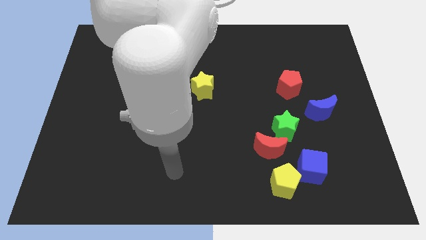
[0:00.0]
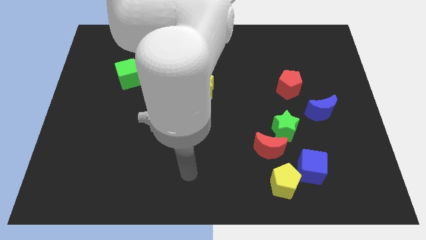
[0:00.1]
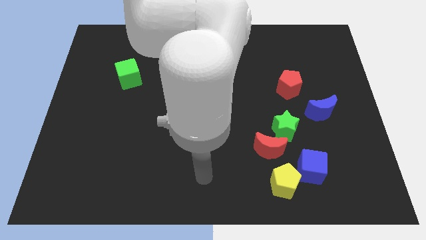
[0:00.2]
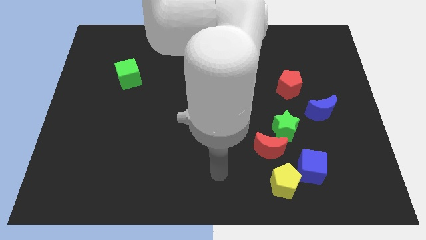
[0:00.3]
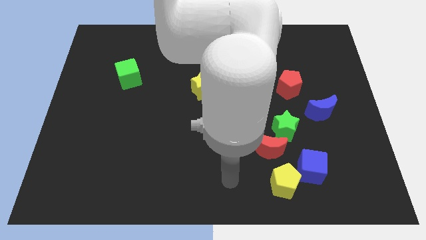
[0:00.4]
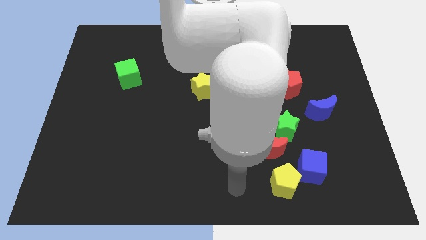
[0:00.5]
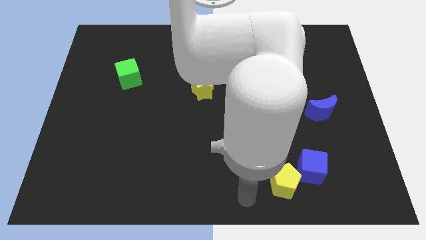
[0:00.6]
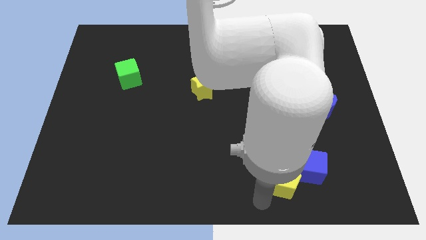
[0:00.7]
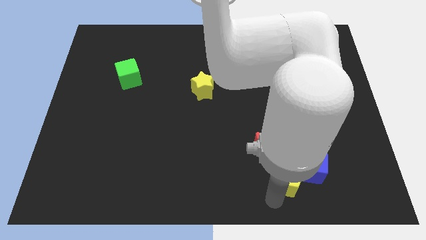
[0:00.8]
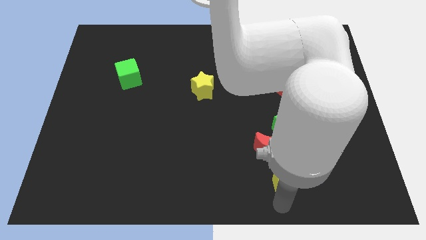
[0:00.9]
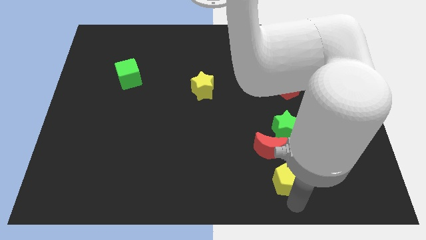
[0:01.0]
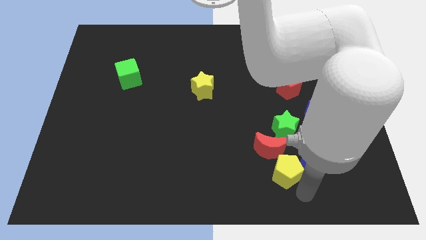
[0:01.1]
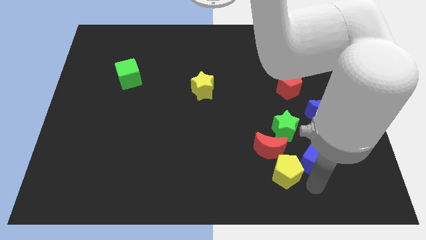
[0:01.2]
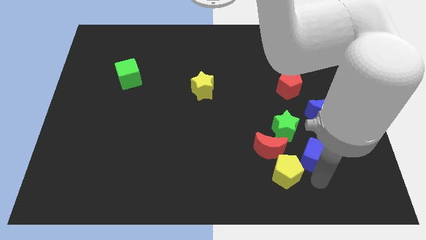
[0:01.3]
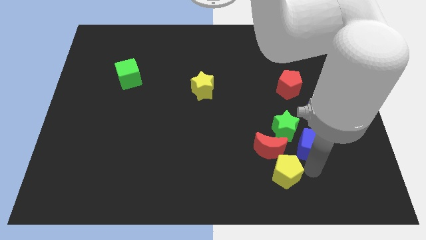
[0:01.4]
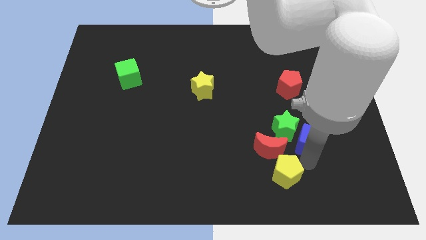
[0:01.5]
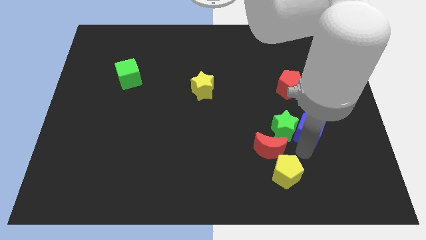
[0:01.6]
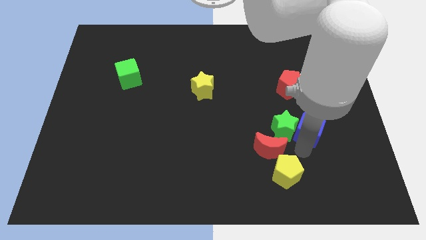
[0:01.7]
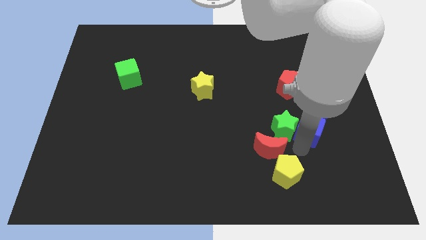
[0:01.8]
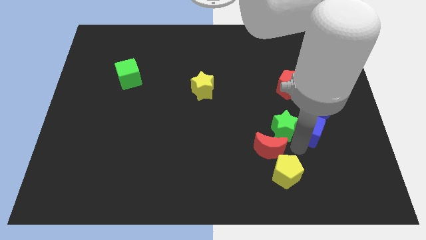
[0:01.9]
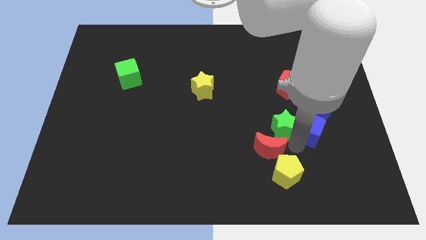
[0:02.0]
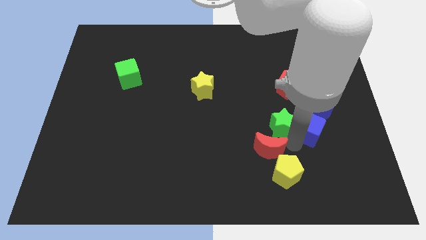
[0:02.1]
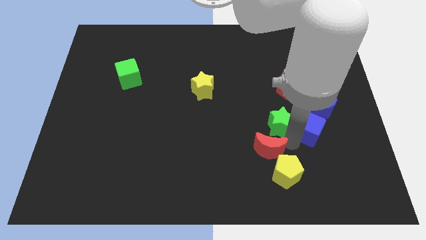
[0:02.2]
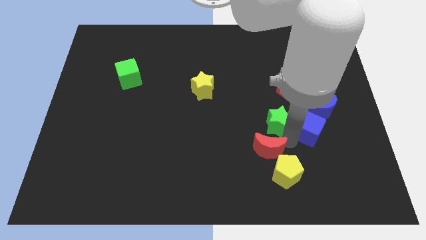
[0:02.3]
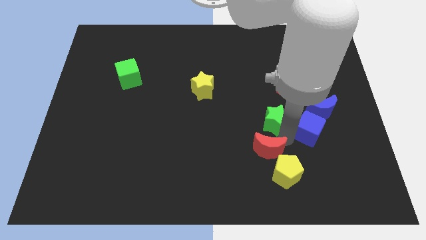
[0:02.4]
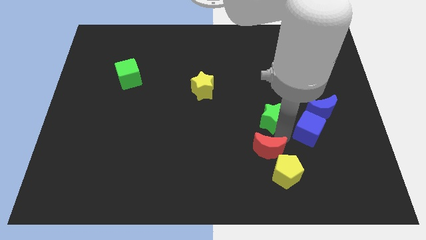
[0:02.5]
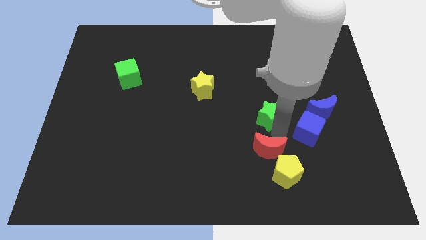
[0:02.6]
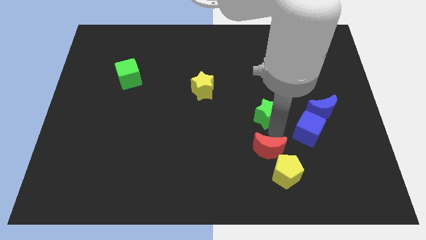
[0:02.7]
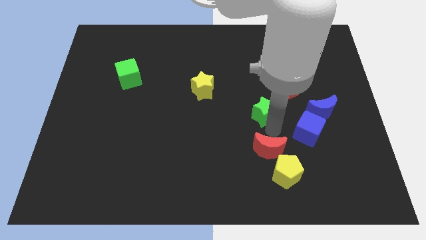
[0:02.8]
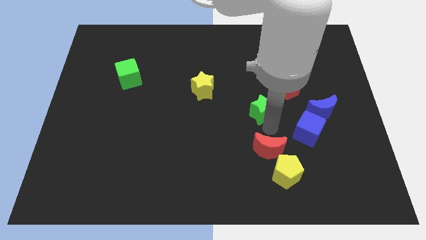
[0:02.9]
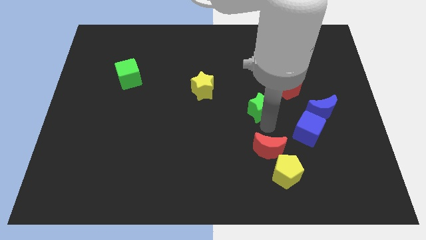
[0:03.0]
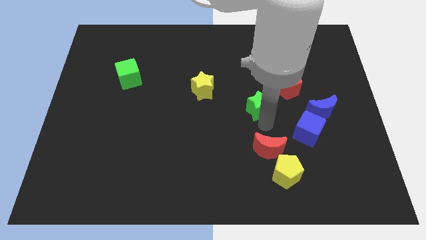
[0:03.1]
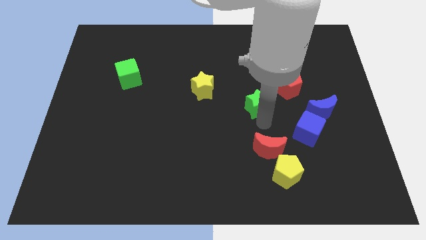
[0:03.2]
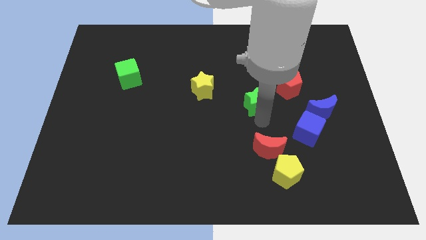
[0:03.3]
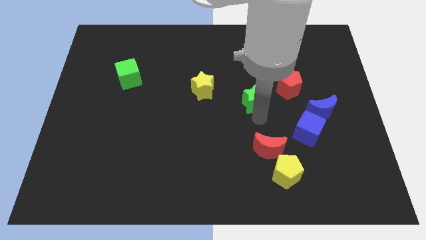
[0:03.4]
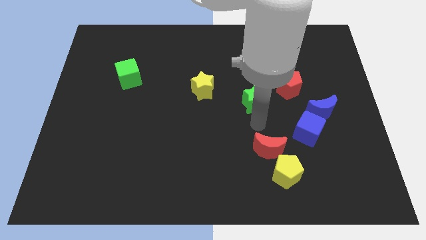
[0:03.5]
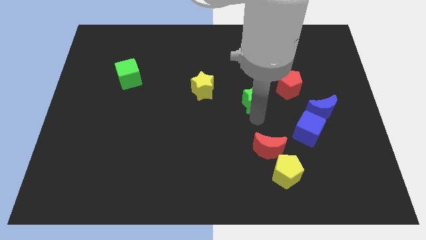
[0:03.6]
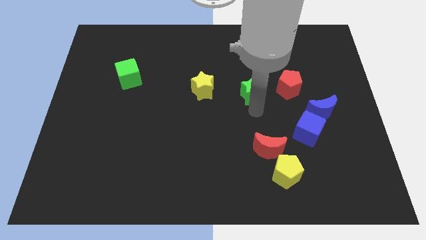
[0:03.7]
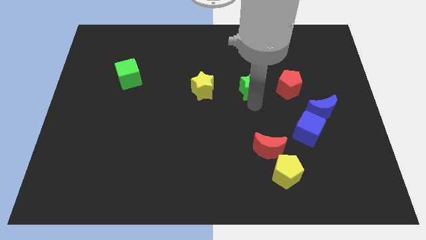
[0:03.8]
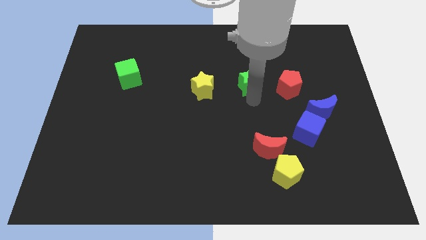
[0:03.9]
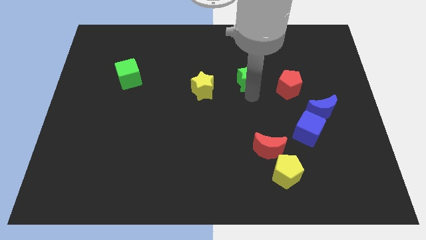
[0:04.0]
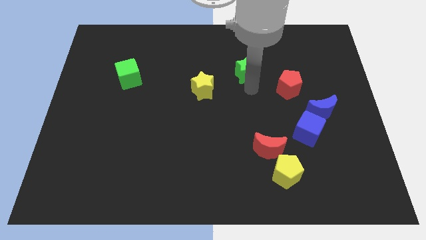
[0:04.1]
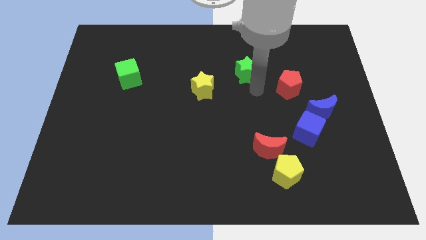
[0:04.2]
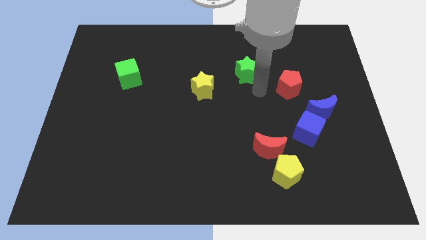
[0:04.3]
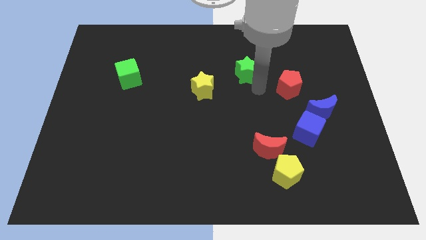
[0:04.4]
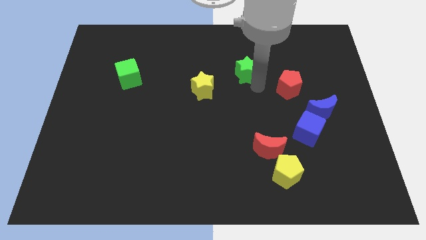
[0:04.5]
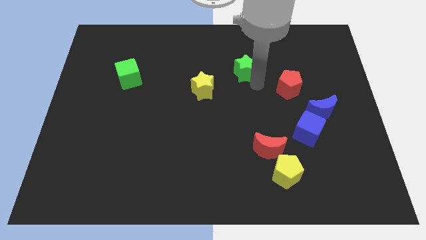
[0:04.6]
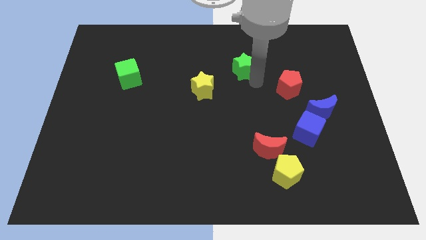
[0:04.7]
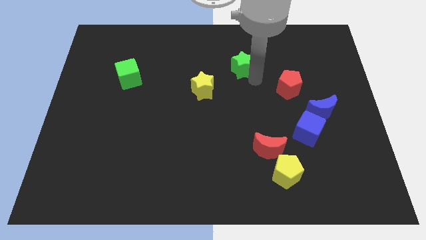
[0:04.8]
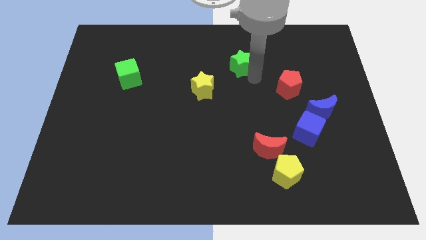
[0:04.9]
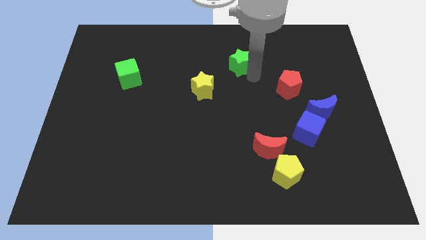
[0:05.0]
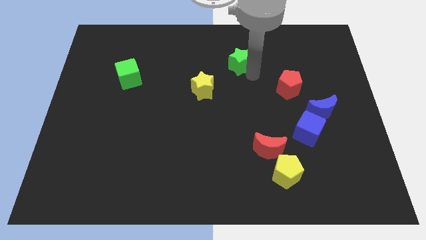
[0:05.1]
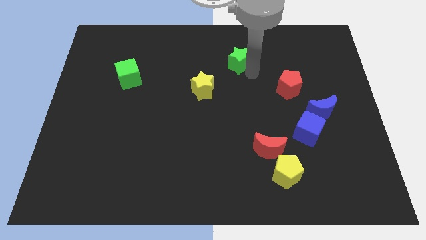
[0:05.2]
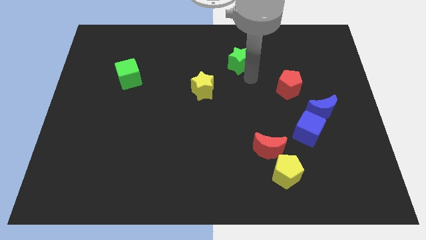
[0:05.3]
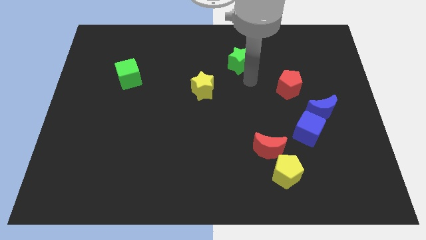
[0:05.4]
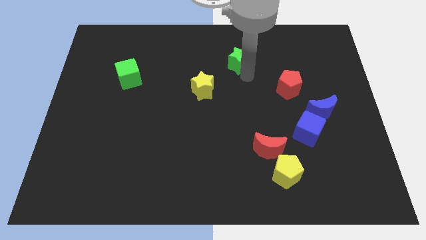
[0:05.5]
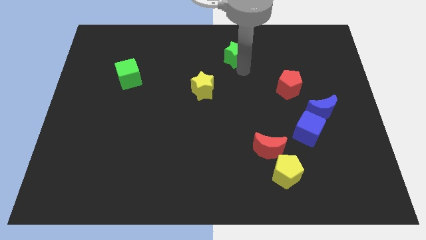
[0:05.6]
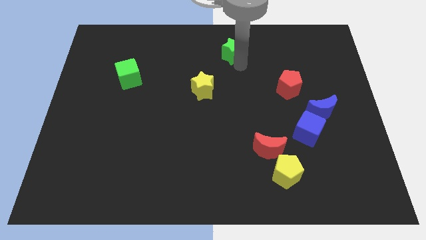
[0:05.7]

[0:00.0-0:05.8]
move the green star to the top side
